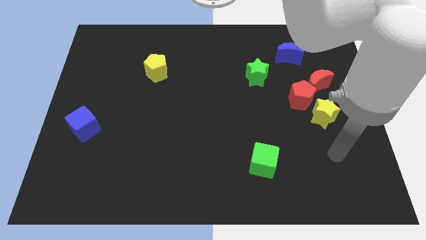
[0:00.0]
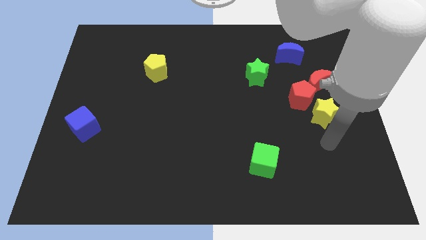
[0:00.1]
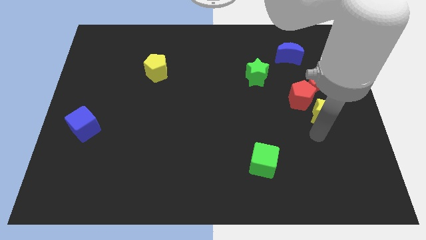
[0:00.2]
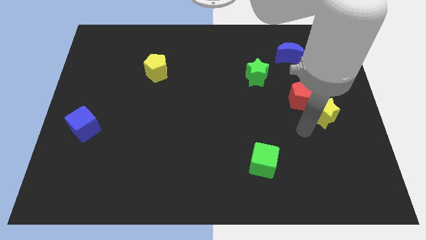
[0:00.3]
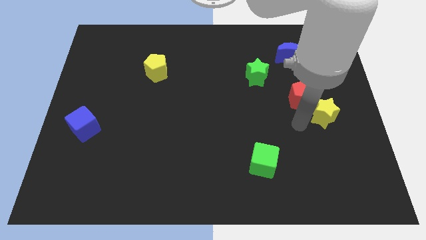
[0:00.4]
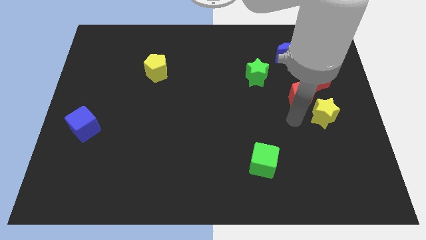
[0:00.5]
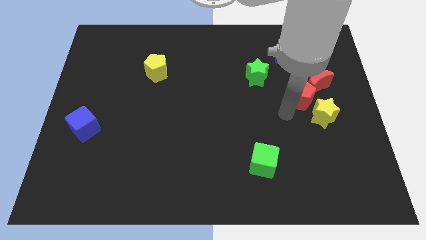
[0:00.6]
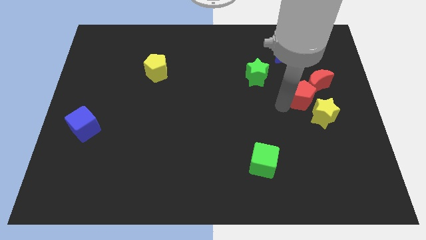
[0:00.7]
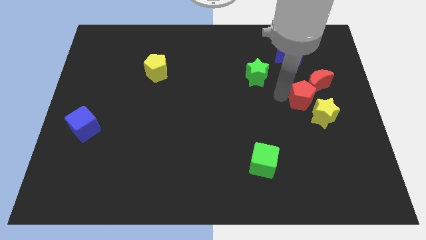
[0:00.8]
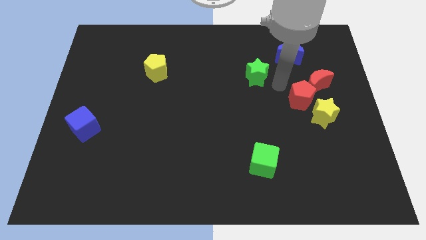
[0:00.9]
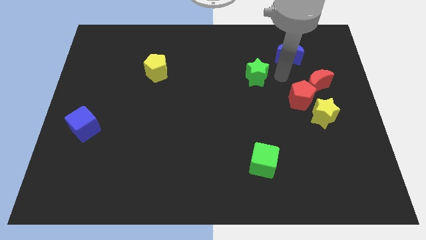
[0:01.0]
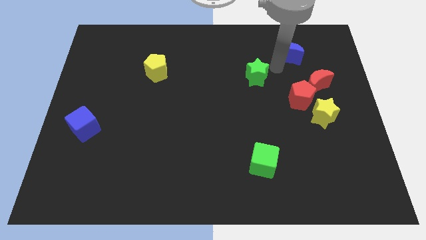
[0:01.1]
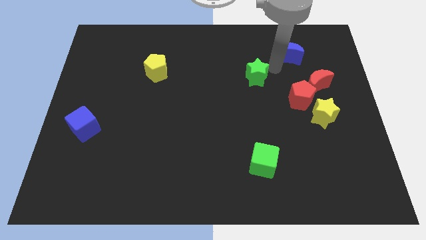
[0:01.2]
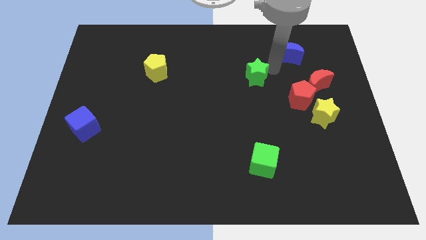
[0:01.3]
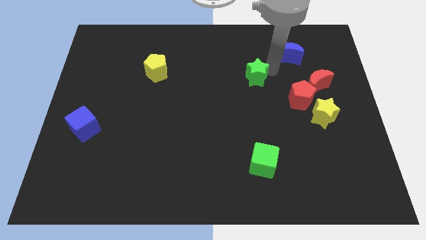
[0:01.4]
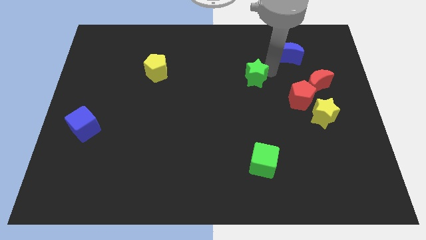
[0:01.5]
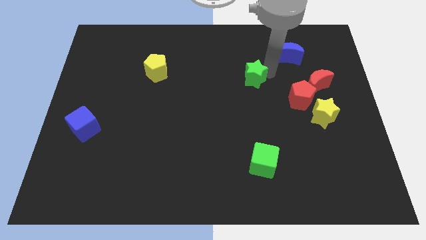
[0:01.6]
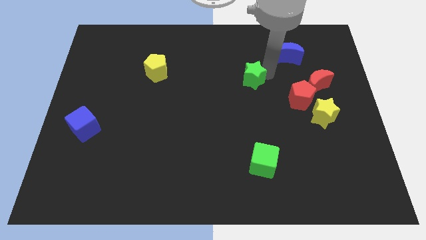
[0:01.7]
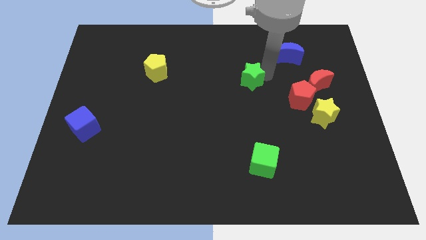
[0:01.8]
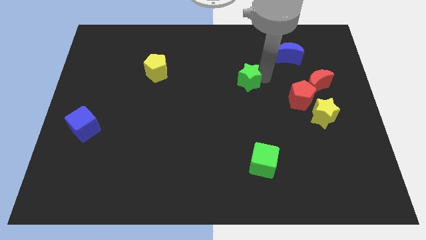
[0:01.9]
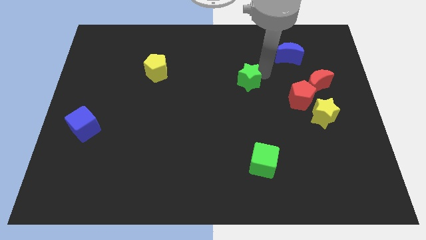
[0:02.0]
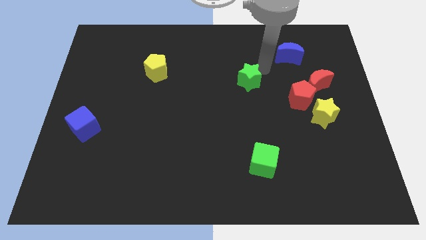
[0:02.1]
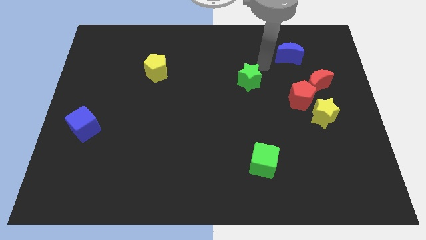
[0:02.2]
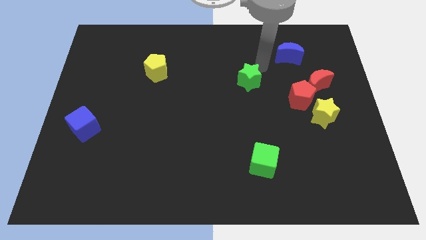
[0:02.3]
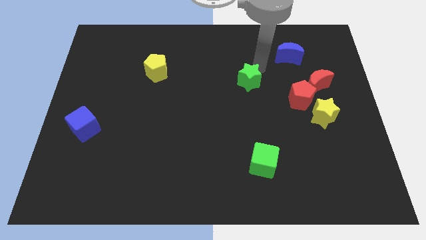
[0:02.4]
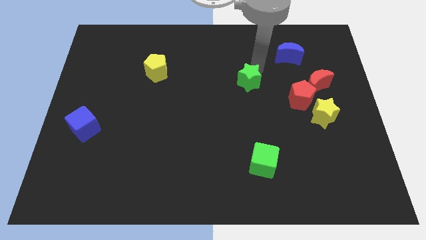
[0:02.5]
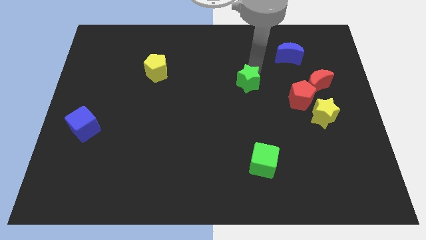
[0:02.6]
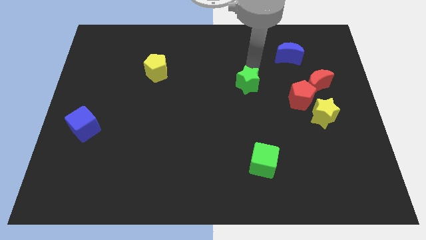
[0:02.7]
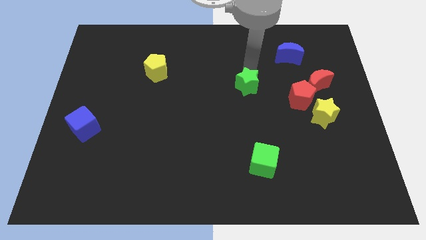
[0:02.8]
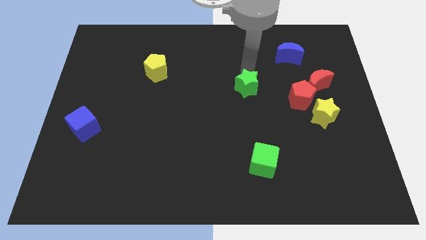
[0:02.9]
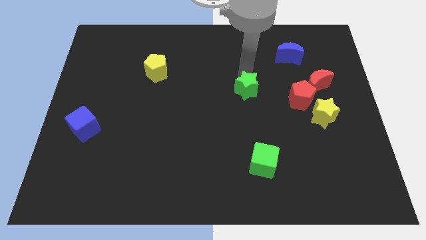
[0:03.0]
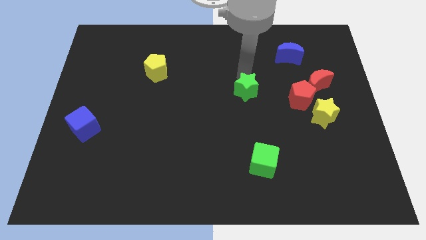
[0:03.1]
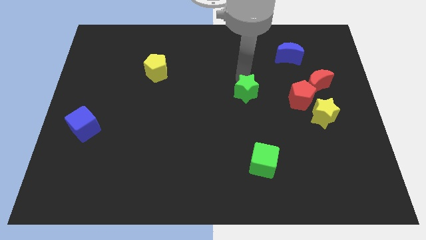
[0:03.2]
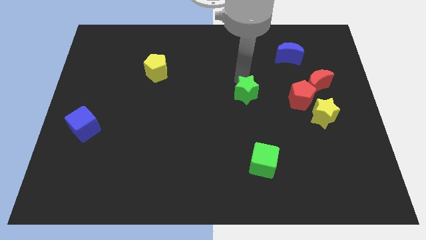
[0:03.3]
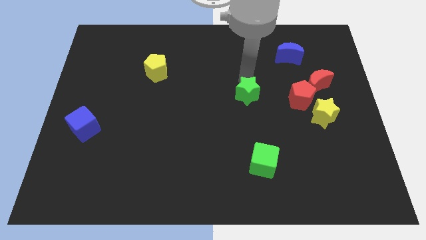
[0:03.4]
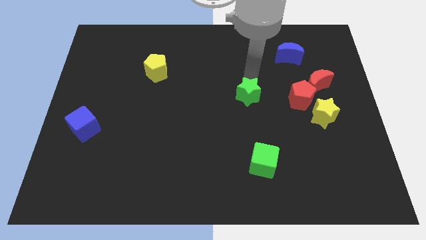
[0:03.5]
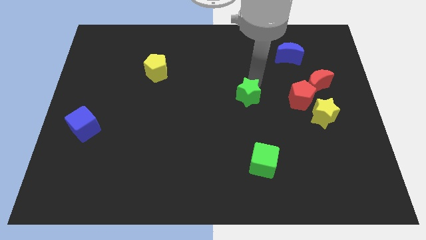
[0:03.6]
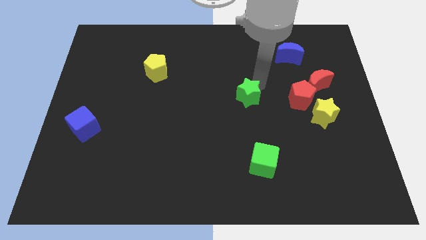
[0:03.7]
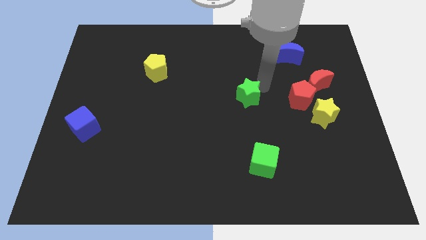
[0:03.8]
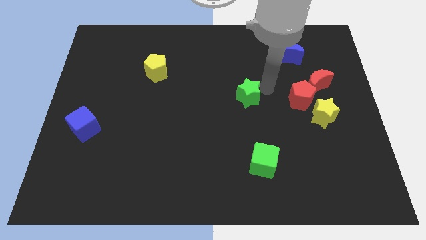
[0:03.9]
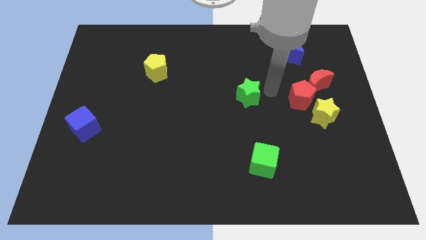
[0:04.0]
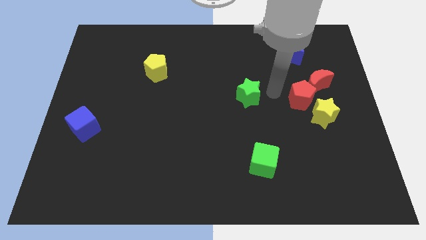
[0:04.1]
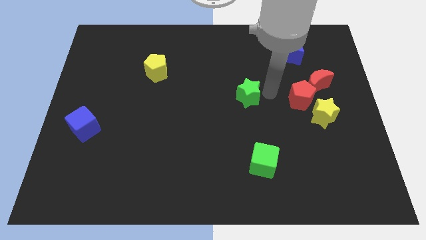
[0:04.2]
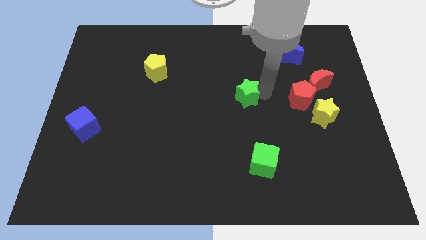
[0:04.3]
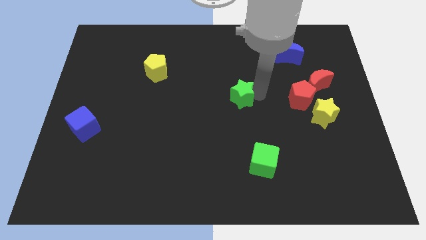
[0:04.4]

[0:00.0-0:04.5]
slightly slide the green star downwards and then to the left

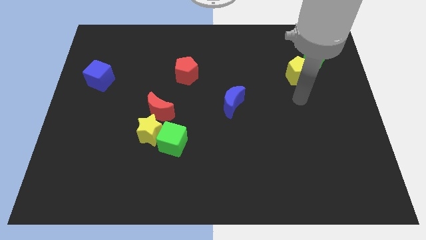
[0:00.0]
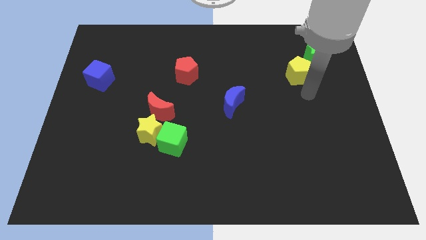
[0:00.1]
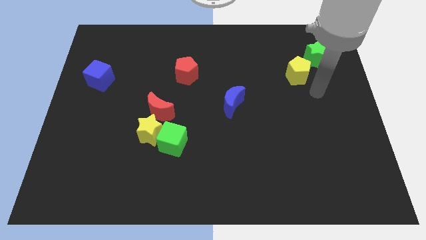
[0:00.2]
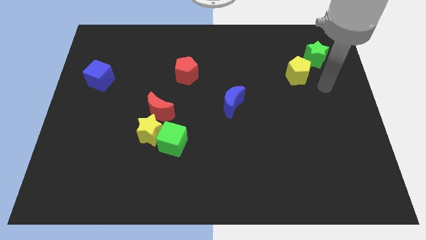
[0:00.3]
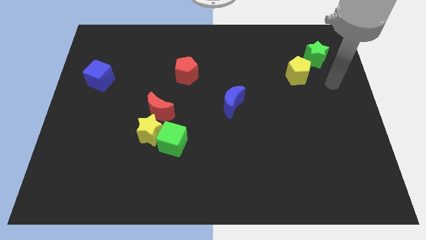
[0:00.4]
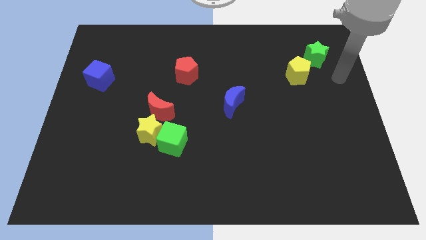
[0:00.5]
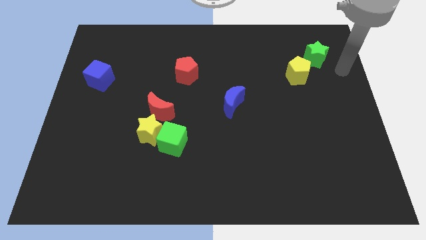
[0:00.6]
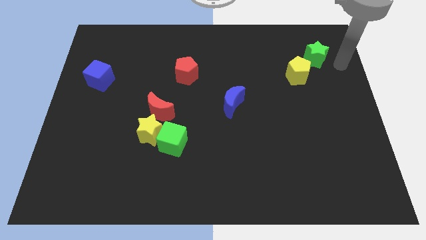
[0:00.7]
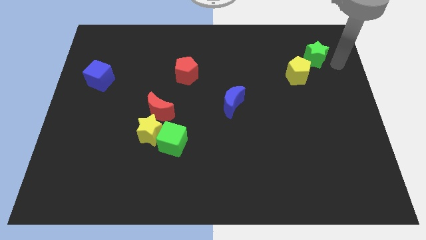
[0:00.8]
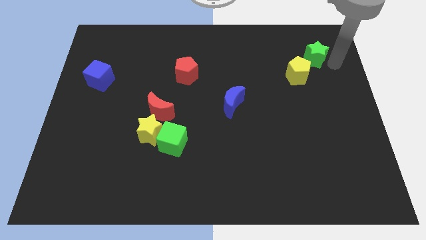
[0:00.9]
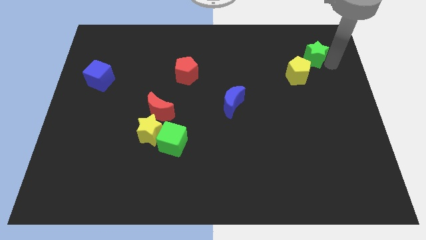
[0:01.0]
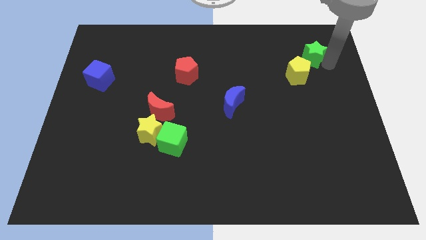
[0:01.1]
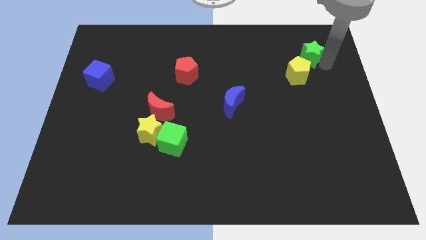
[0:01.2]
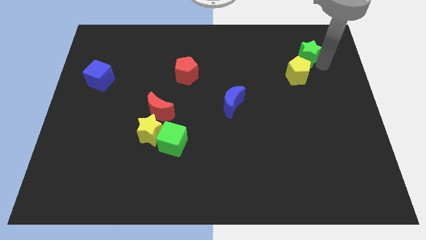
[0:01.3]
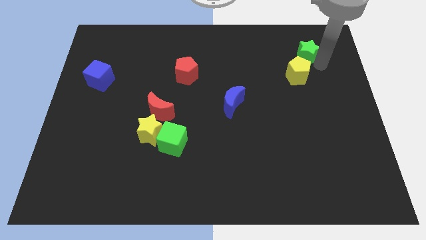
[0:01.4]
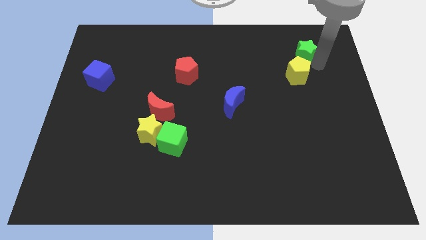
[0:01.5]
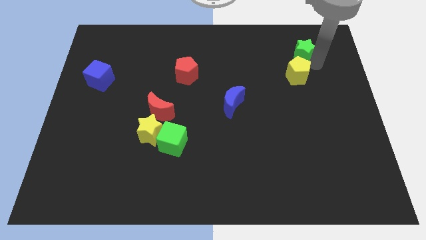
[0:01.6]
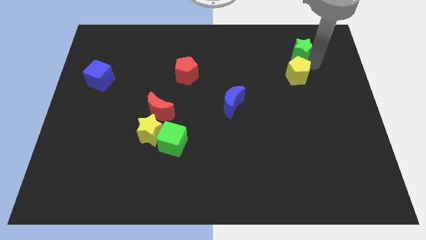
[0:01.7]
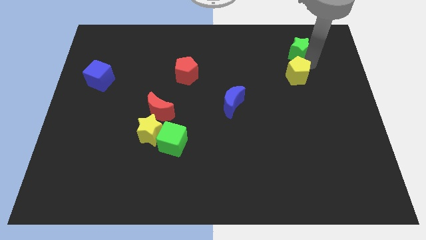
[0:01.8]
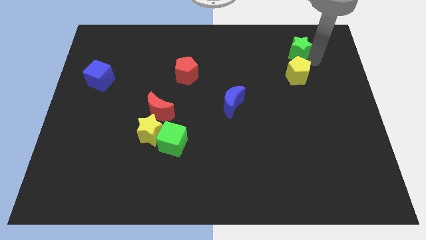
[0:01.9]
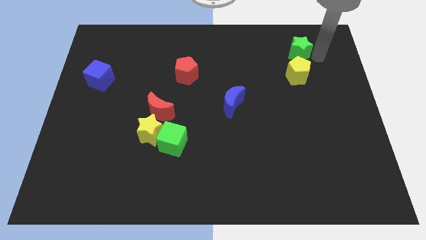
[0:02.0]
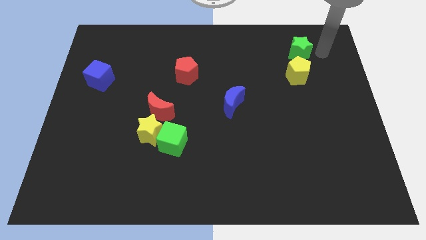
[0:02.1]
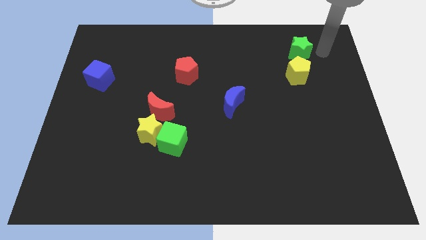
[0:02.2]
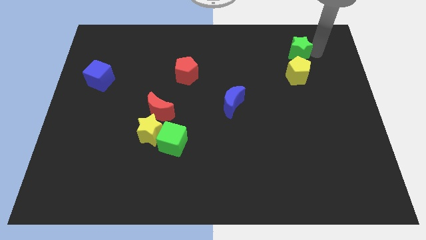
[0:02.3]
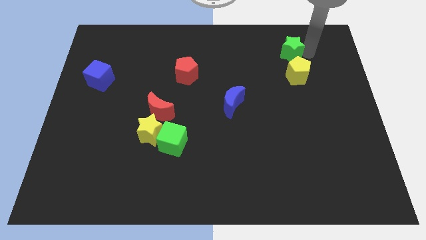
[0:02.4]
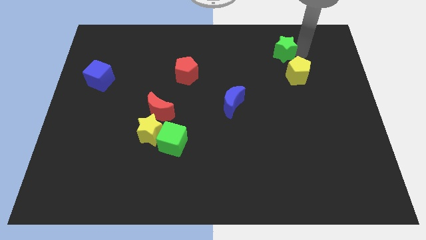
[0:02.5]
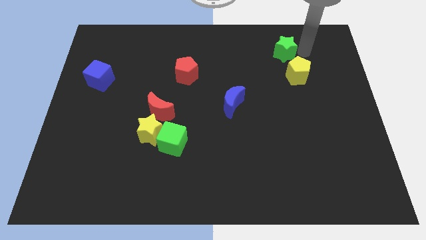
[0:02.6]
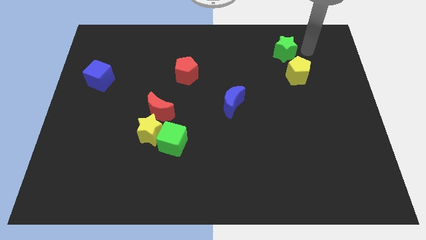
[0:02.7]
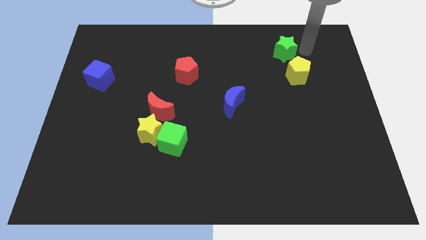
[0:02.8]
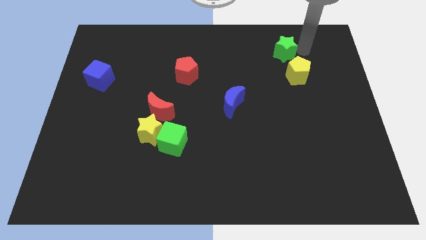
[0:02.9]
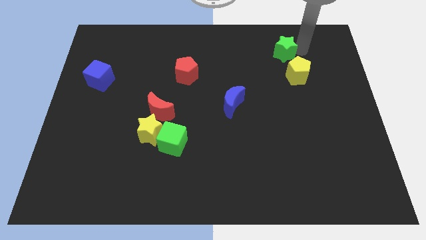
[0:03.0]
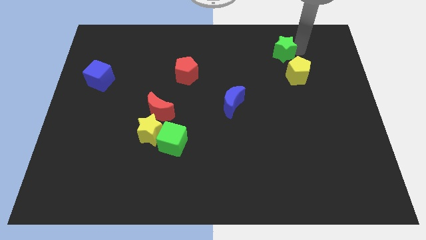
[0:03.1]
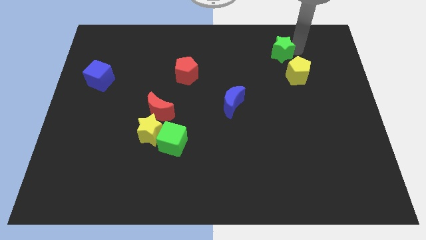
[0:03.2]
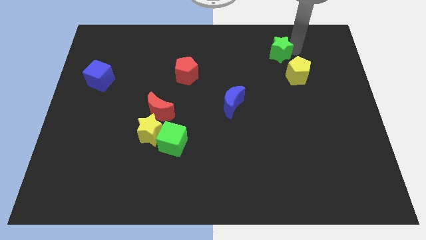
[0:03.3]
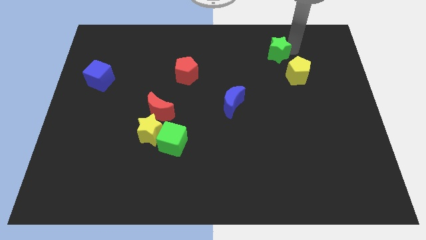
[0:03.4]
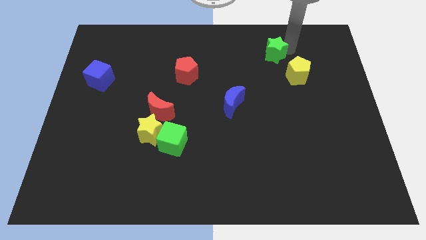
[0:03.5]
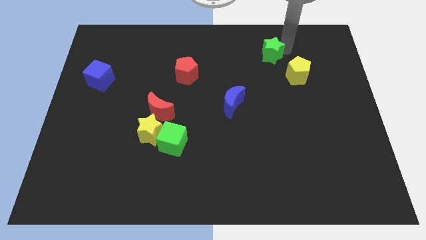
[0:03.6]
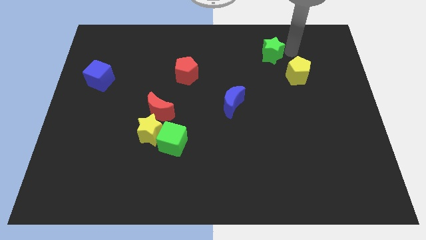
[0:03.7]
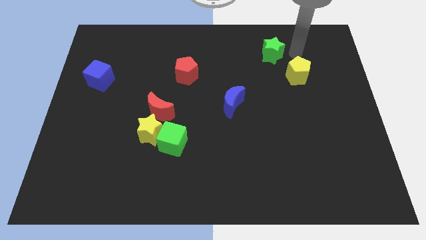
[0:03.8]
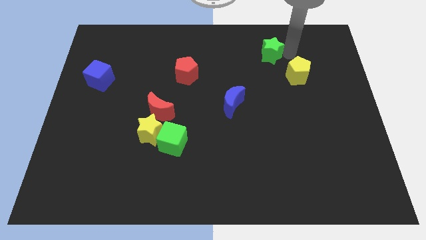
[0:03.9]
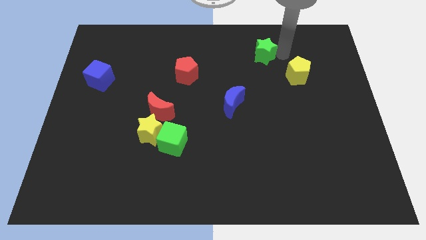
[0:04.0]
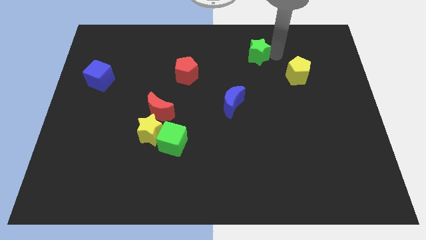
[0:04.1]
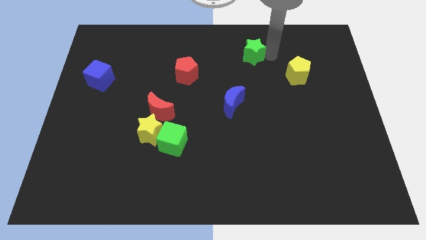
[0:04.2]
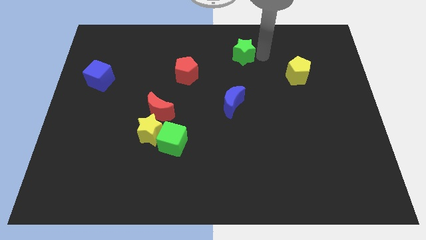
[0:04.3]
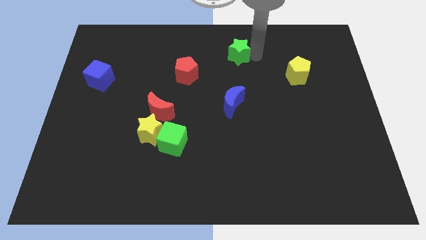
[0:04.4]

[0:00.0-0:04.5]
move the green star to the left
